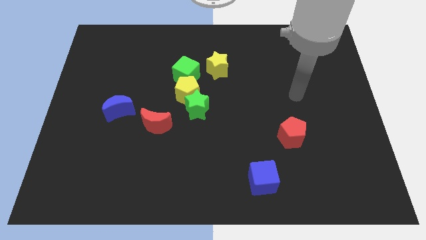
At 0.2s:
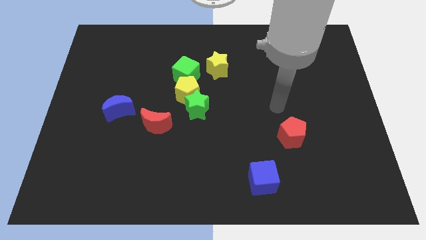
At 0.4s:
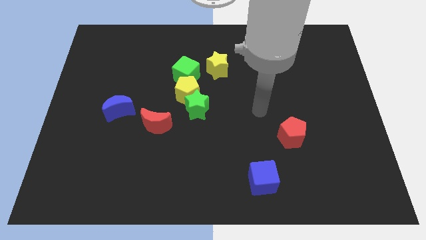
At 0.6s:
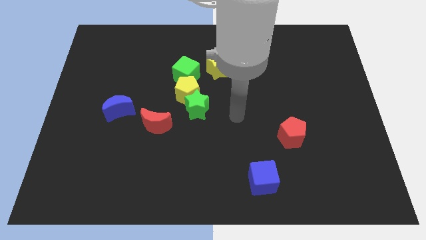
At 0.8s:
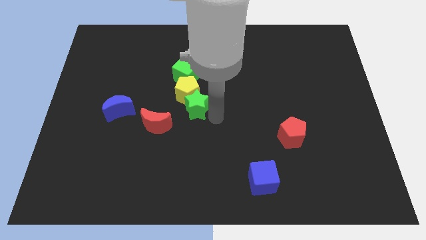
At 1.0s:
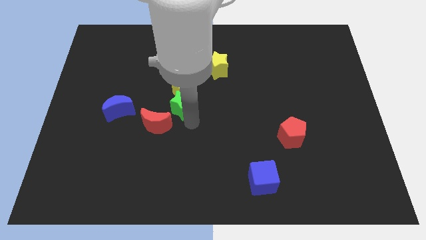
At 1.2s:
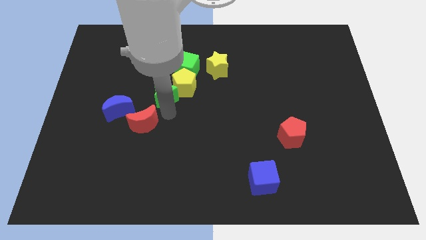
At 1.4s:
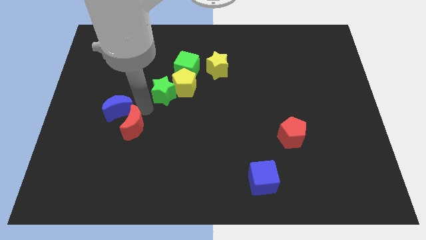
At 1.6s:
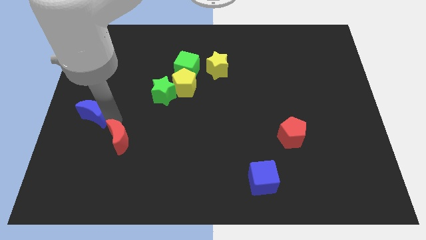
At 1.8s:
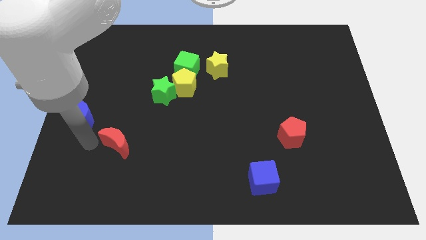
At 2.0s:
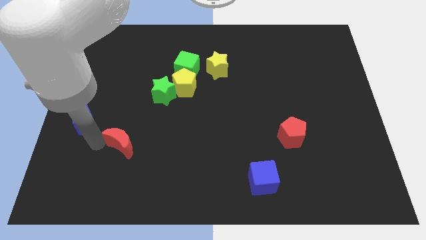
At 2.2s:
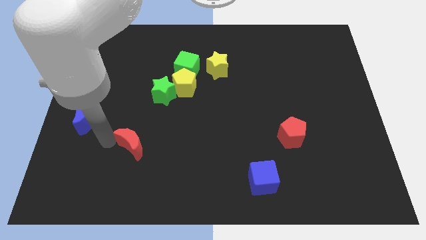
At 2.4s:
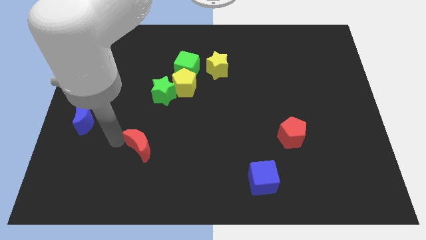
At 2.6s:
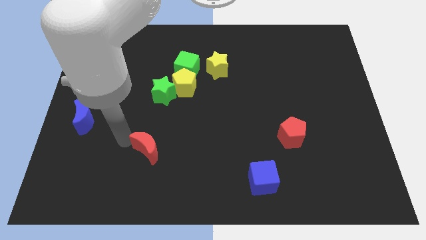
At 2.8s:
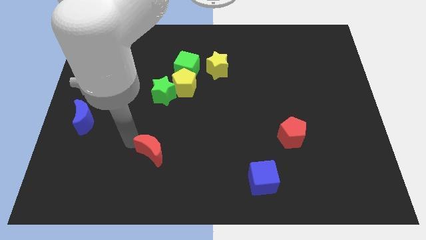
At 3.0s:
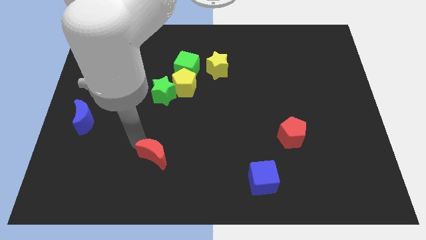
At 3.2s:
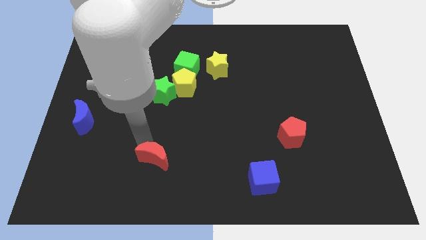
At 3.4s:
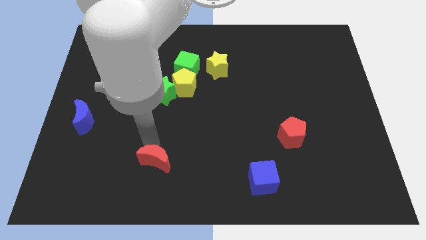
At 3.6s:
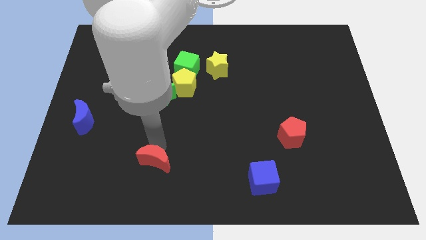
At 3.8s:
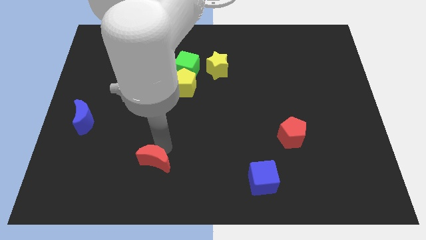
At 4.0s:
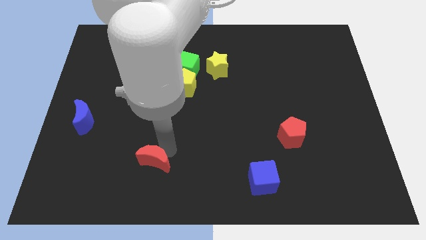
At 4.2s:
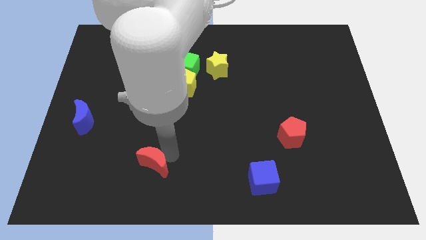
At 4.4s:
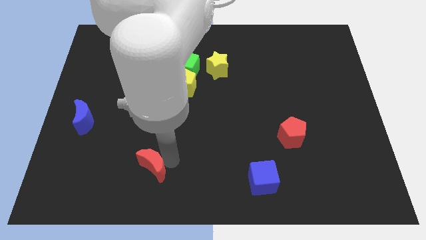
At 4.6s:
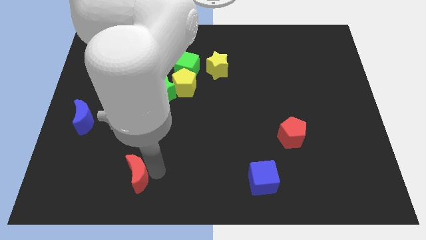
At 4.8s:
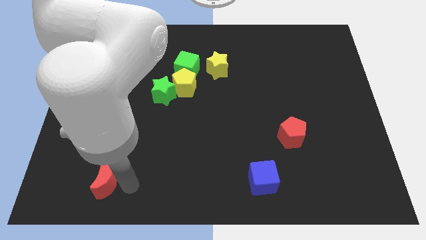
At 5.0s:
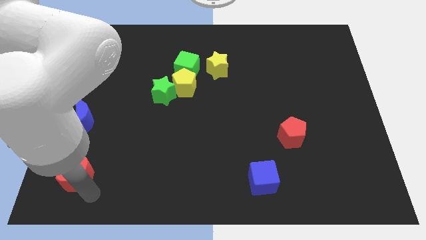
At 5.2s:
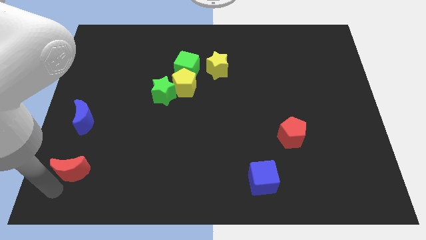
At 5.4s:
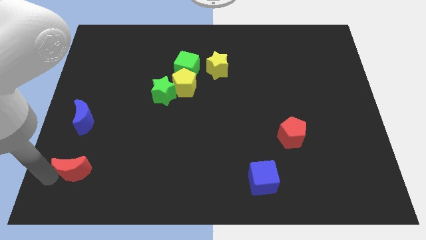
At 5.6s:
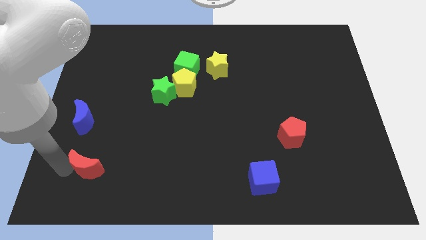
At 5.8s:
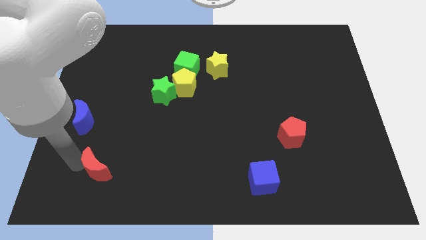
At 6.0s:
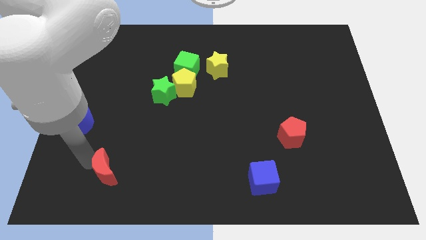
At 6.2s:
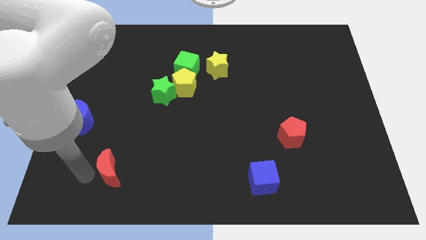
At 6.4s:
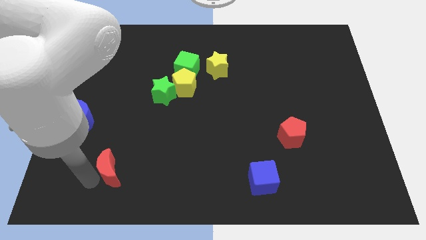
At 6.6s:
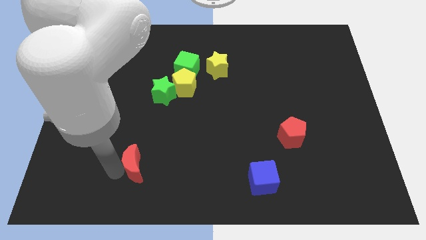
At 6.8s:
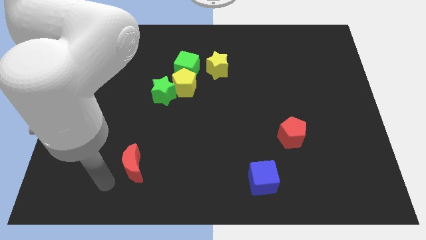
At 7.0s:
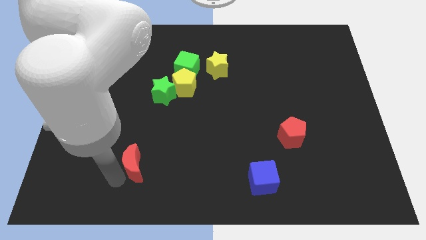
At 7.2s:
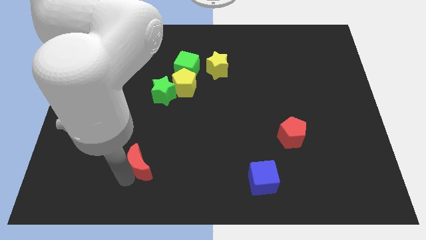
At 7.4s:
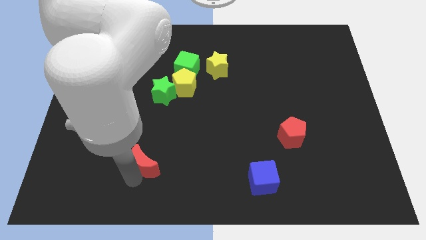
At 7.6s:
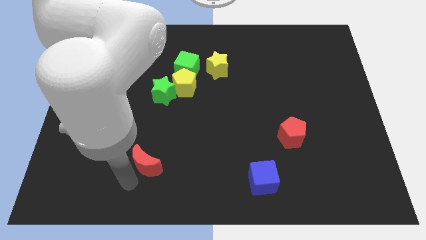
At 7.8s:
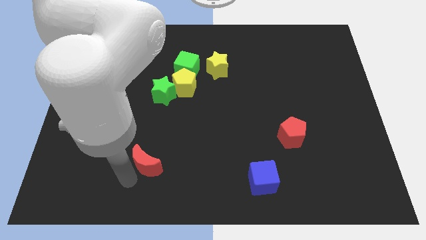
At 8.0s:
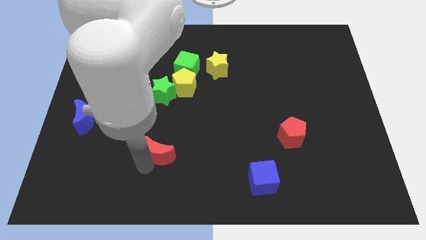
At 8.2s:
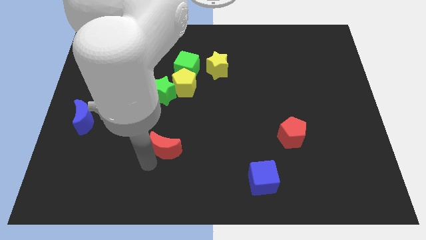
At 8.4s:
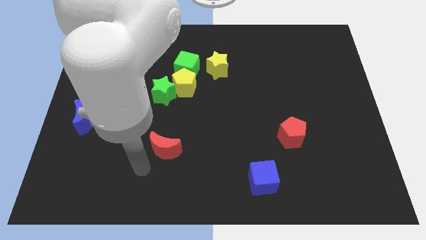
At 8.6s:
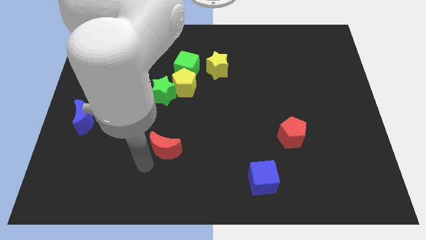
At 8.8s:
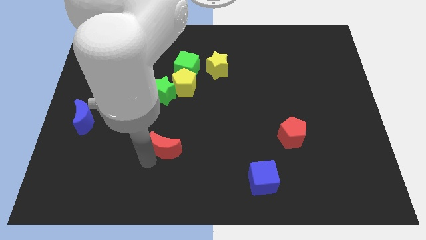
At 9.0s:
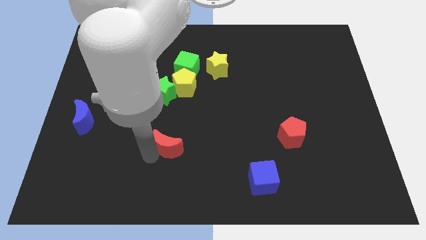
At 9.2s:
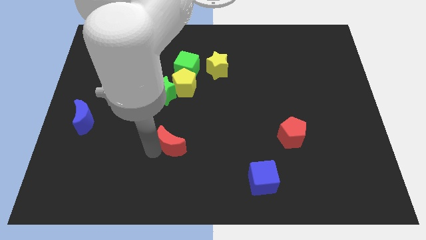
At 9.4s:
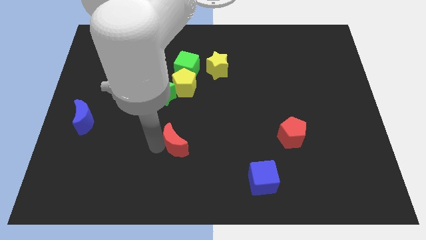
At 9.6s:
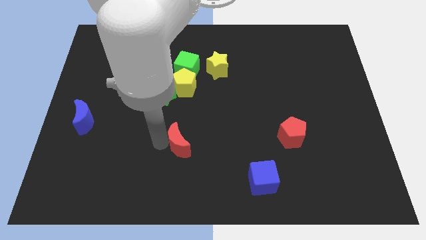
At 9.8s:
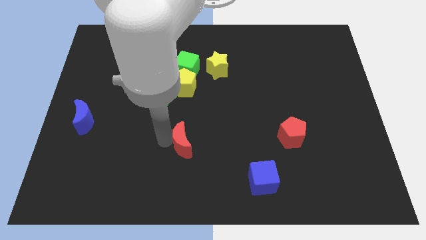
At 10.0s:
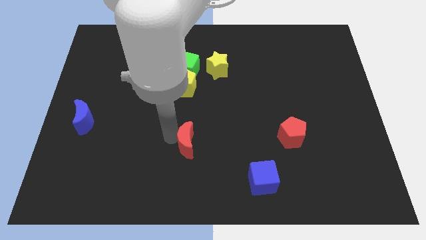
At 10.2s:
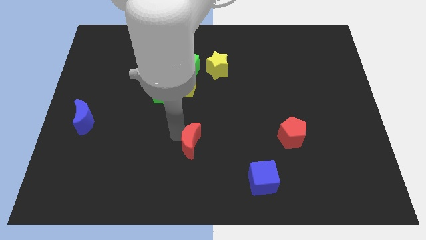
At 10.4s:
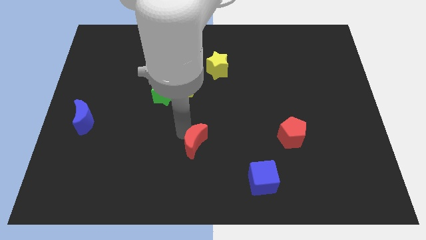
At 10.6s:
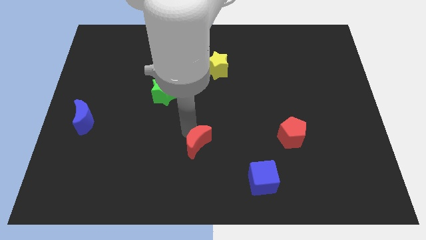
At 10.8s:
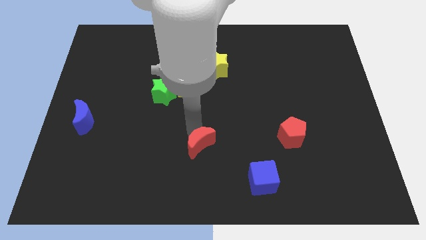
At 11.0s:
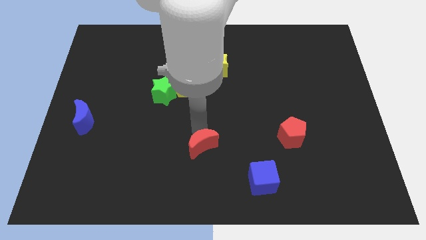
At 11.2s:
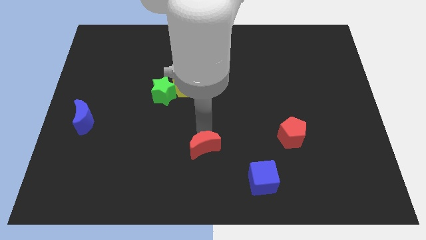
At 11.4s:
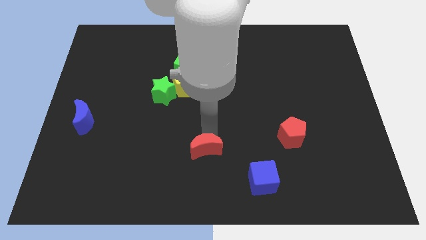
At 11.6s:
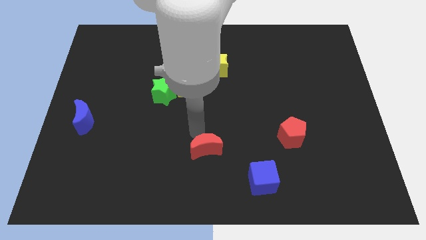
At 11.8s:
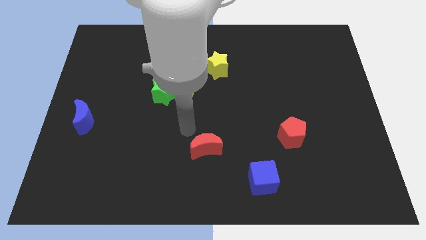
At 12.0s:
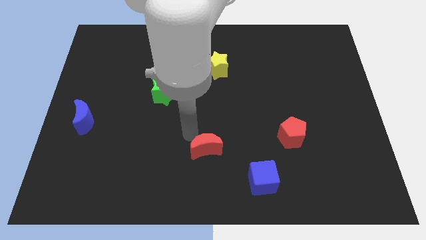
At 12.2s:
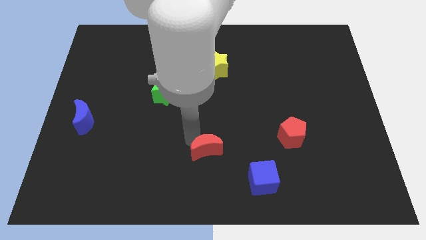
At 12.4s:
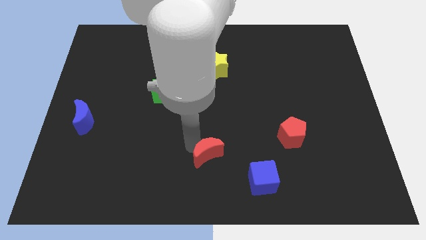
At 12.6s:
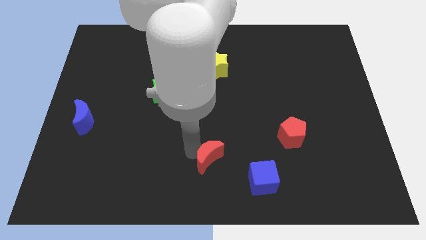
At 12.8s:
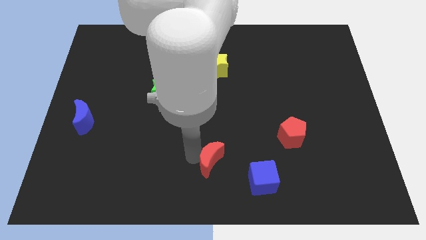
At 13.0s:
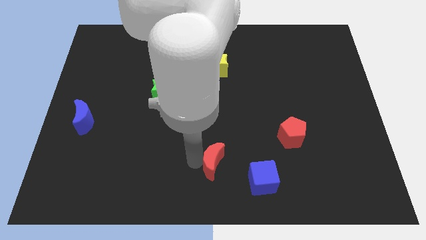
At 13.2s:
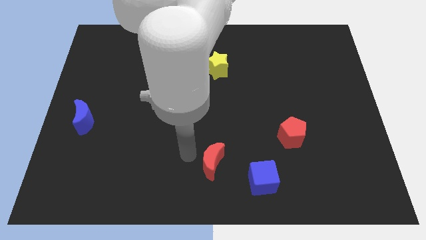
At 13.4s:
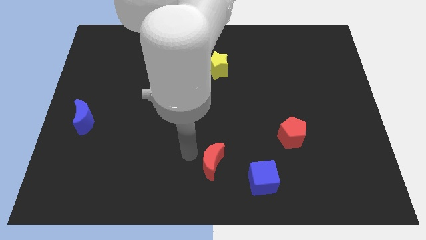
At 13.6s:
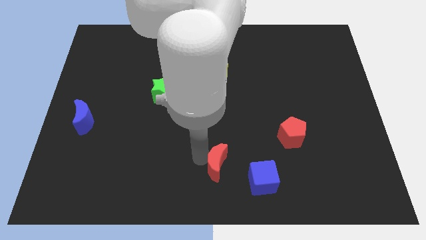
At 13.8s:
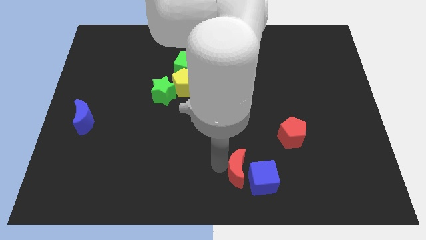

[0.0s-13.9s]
put the red moon to the blue cube

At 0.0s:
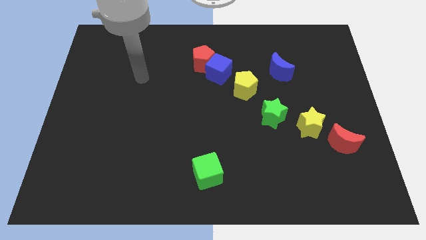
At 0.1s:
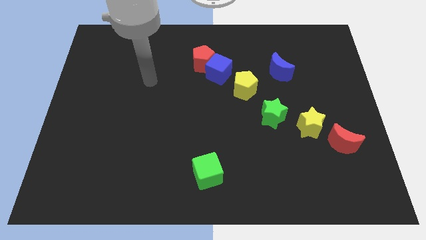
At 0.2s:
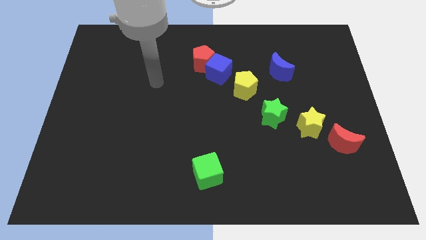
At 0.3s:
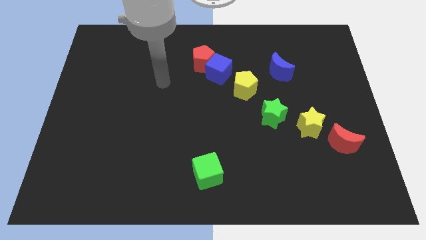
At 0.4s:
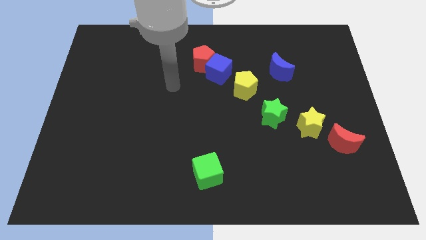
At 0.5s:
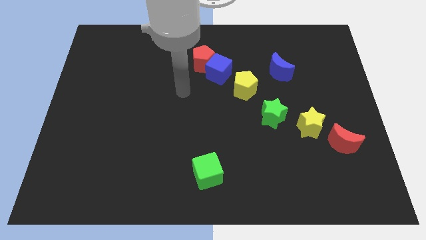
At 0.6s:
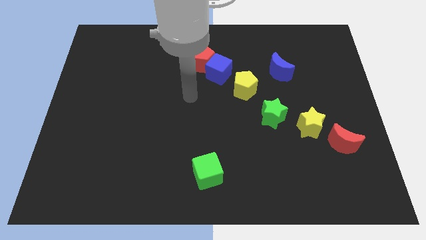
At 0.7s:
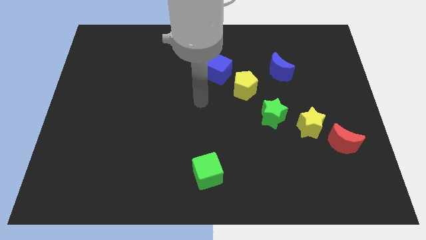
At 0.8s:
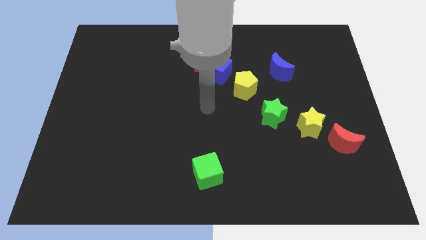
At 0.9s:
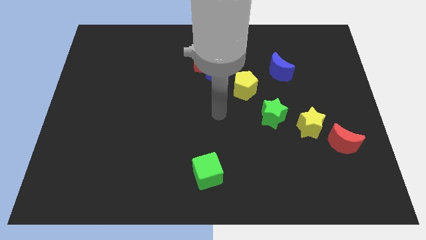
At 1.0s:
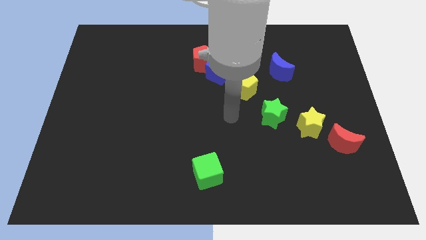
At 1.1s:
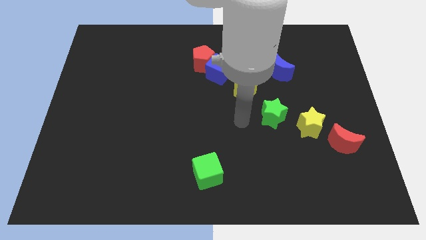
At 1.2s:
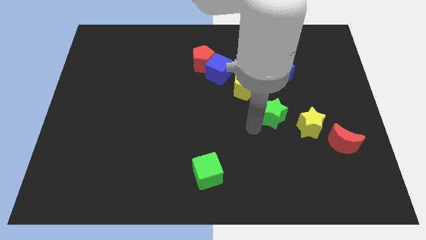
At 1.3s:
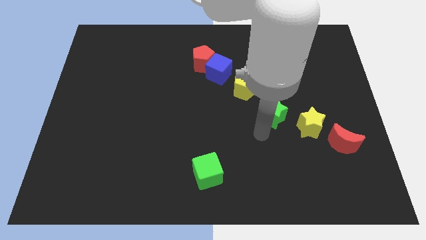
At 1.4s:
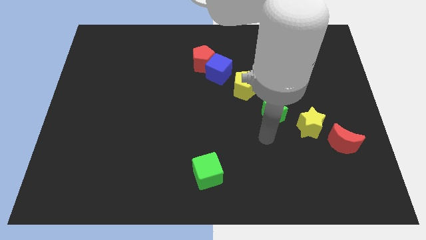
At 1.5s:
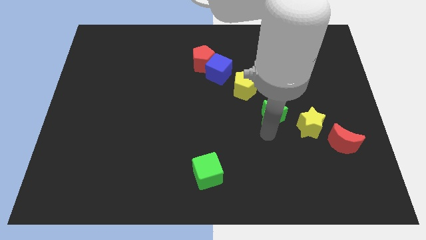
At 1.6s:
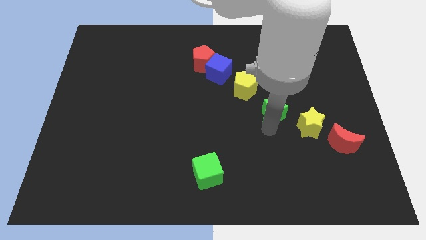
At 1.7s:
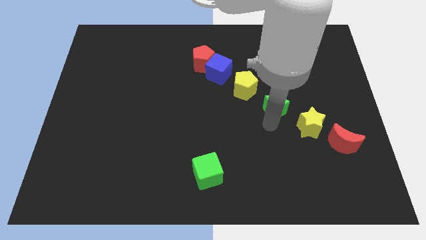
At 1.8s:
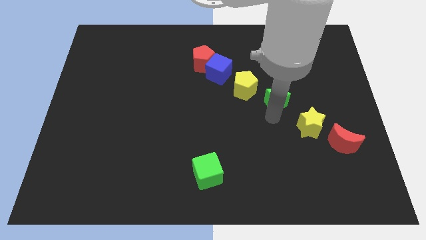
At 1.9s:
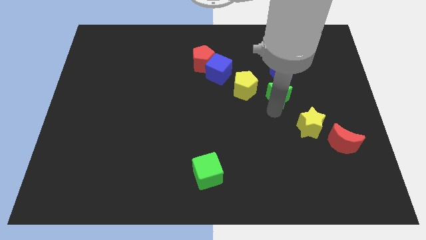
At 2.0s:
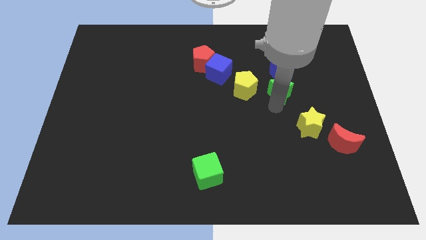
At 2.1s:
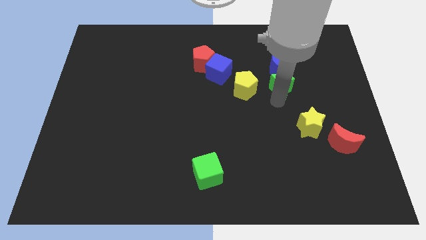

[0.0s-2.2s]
put the green star to the blue moon
